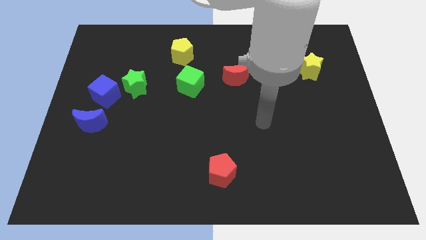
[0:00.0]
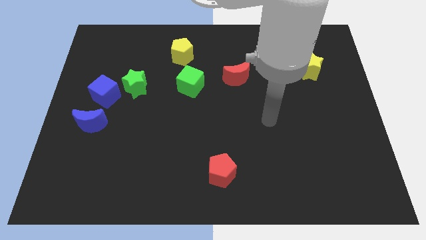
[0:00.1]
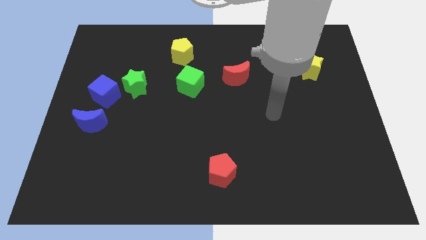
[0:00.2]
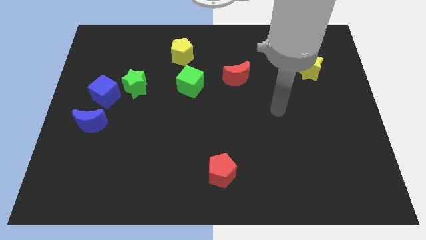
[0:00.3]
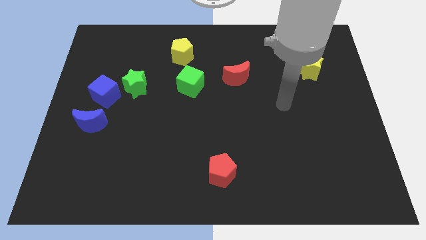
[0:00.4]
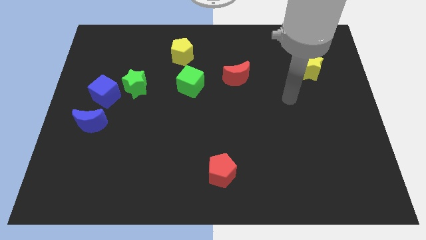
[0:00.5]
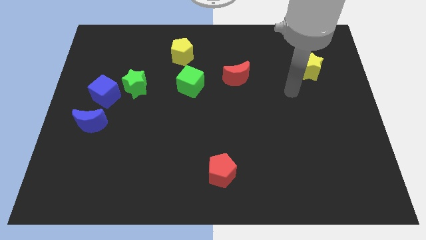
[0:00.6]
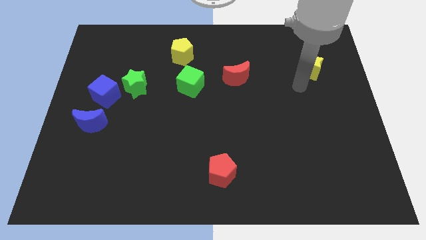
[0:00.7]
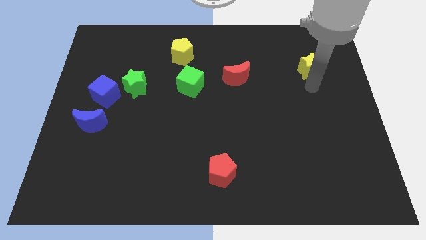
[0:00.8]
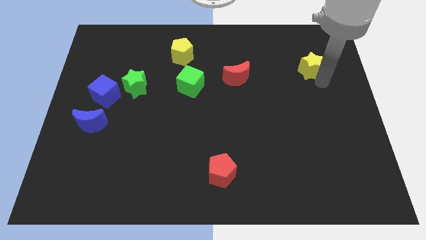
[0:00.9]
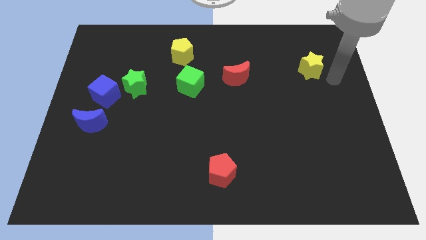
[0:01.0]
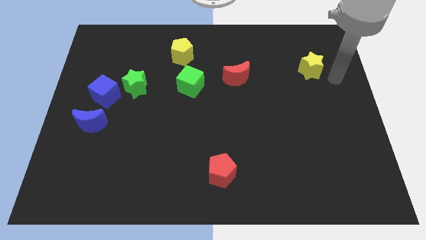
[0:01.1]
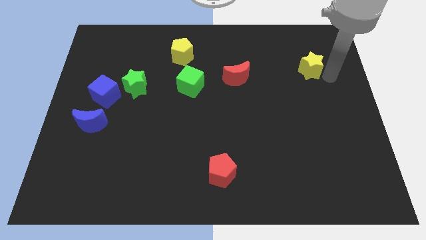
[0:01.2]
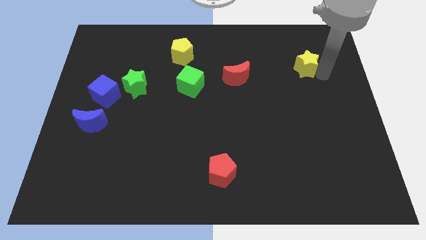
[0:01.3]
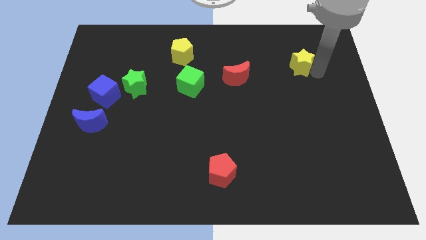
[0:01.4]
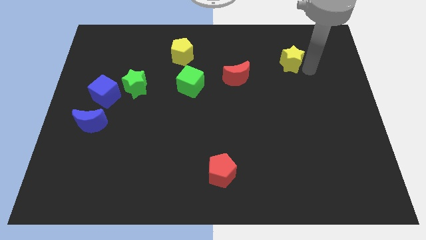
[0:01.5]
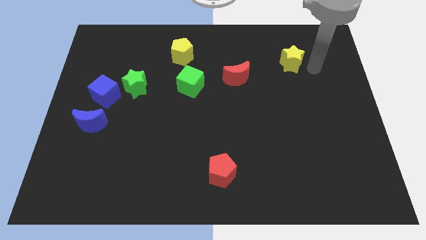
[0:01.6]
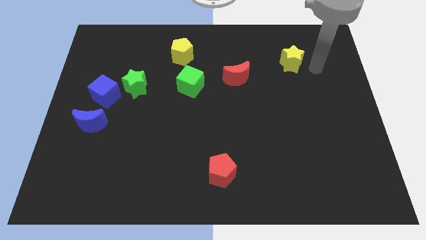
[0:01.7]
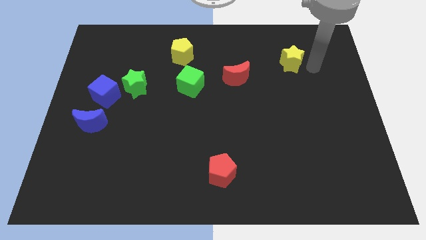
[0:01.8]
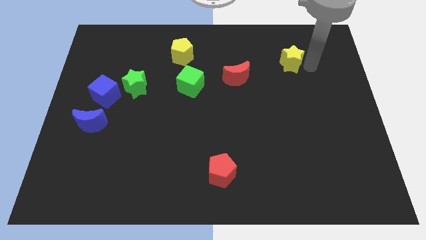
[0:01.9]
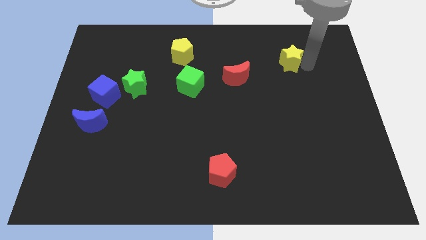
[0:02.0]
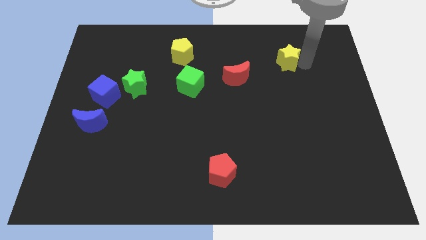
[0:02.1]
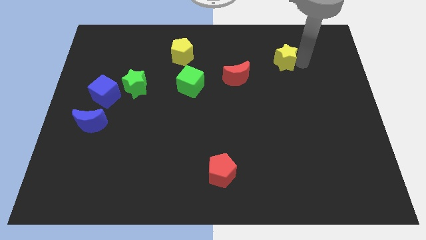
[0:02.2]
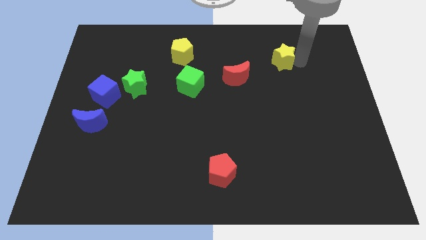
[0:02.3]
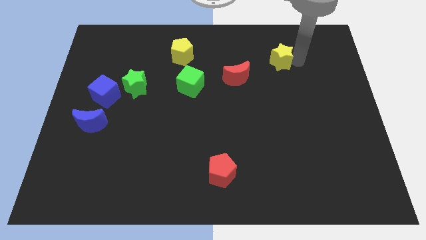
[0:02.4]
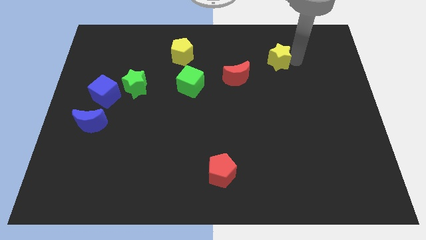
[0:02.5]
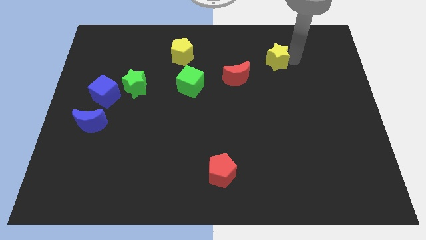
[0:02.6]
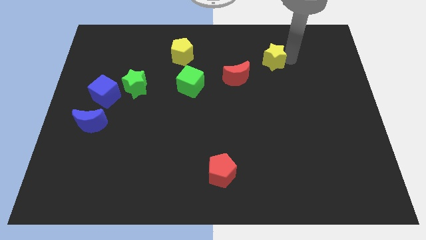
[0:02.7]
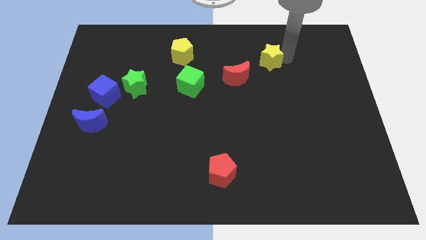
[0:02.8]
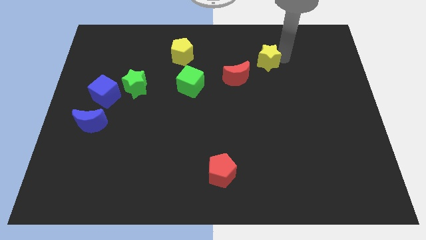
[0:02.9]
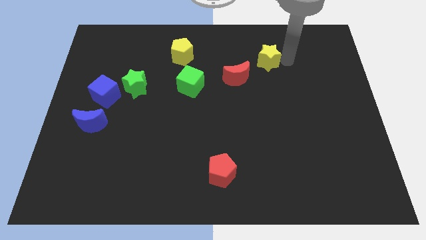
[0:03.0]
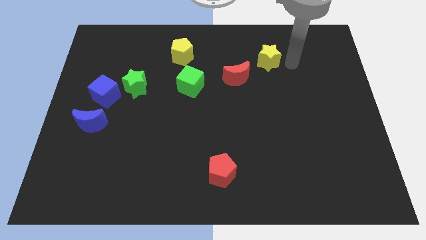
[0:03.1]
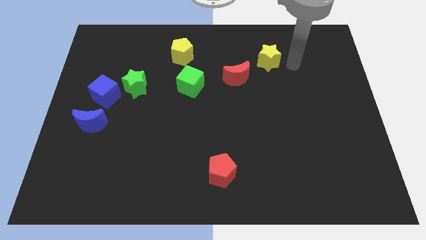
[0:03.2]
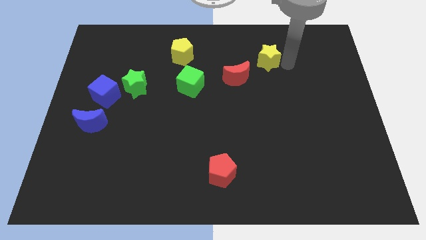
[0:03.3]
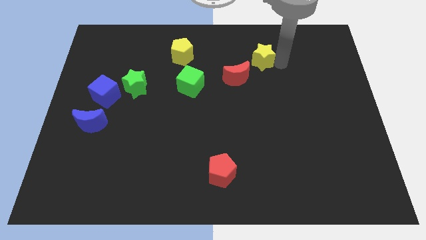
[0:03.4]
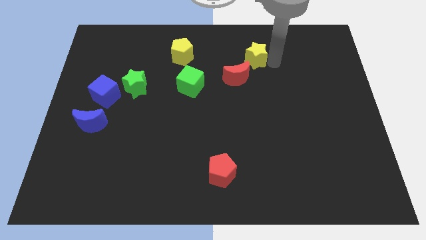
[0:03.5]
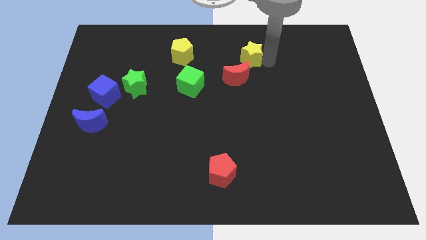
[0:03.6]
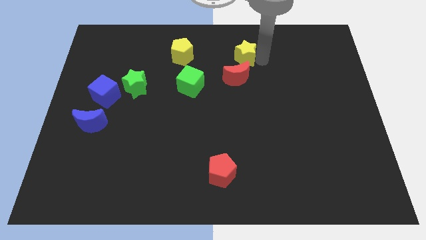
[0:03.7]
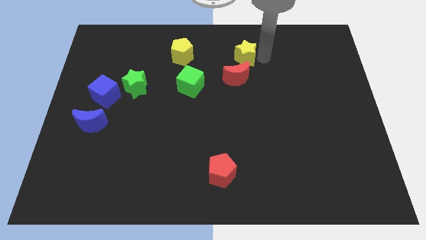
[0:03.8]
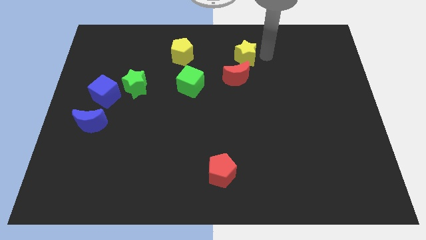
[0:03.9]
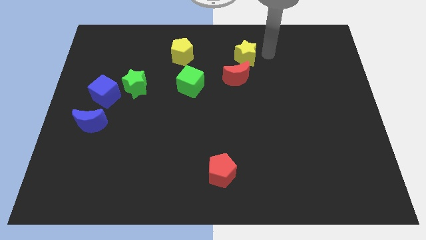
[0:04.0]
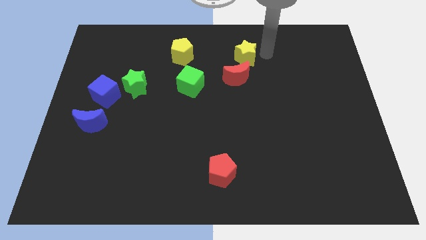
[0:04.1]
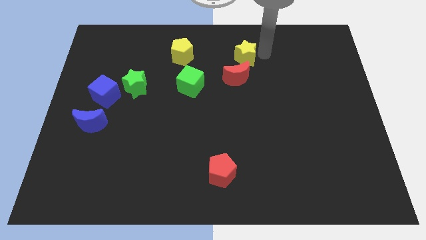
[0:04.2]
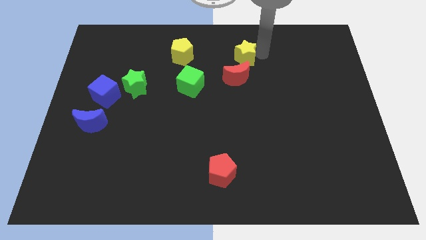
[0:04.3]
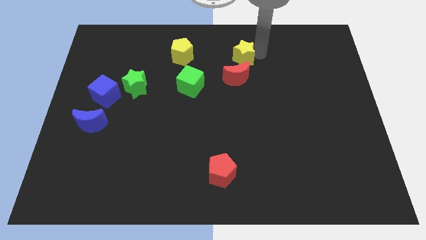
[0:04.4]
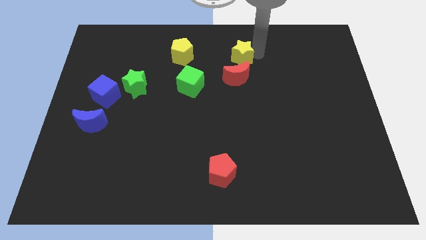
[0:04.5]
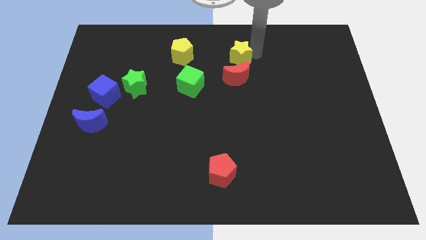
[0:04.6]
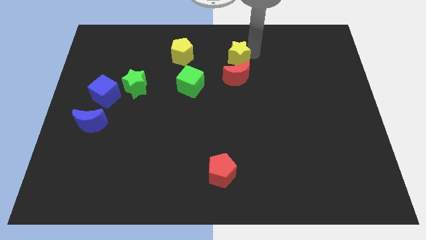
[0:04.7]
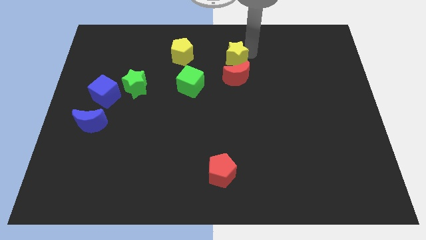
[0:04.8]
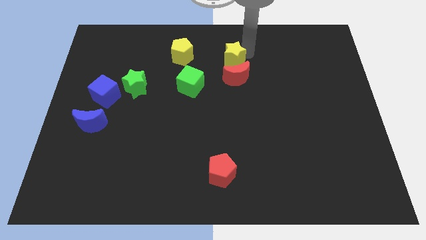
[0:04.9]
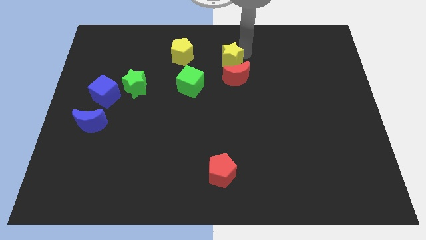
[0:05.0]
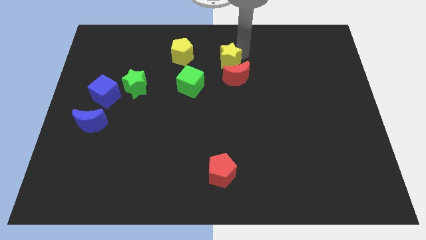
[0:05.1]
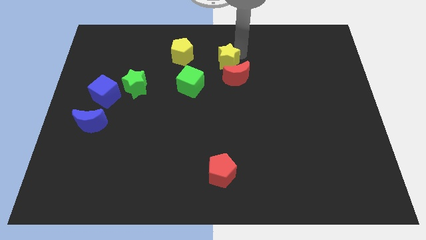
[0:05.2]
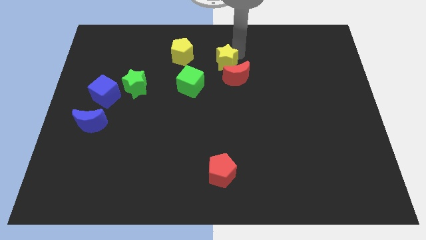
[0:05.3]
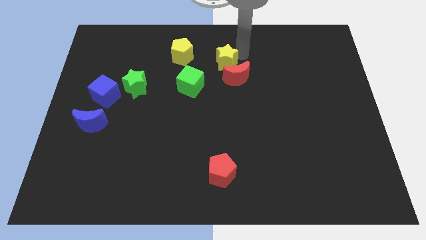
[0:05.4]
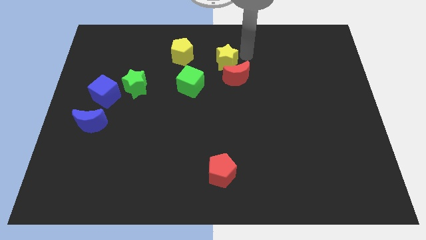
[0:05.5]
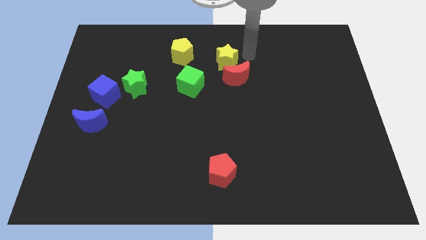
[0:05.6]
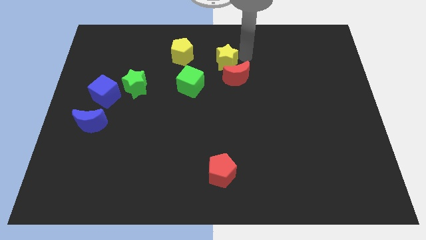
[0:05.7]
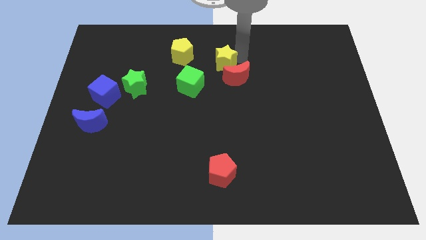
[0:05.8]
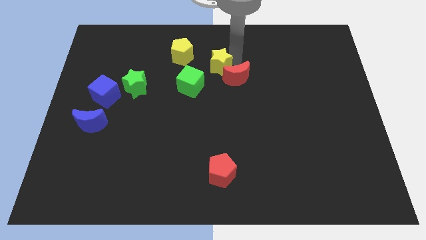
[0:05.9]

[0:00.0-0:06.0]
push the yellow star to the bottom right side of the yellow pentagon

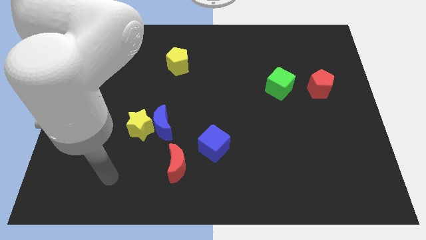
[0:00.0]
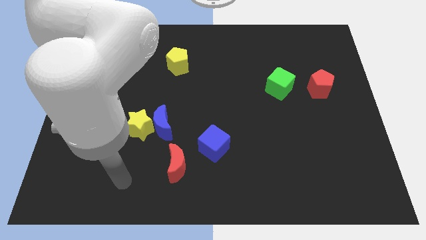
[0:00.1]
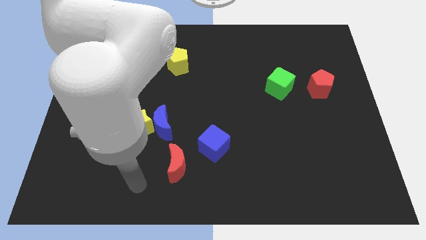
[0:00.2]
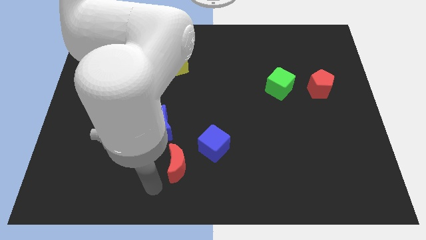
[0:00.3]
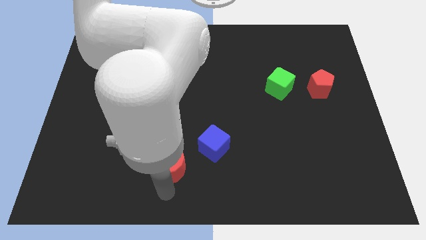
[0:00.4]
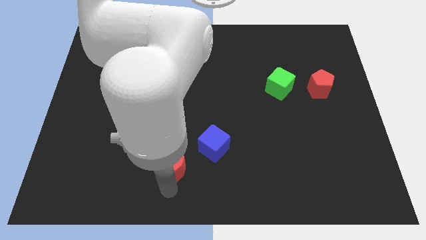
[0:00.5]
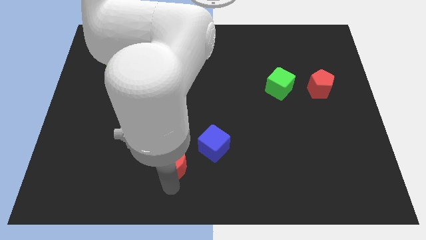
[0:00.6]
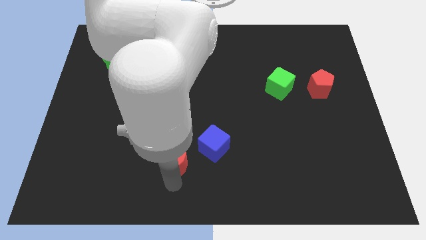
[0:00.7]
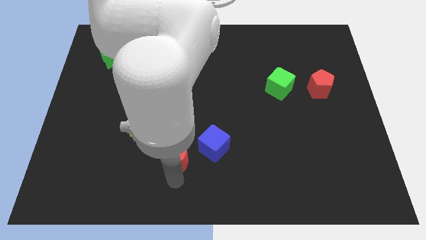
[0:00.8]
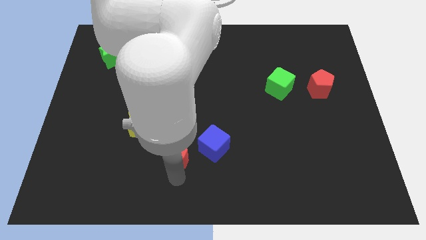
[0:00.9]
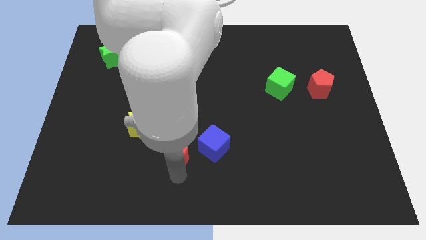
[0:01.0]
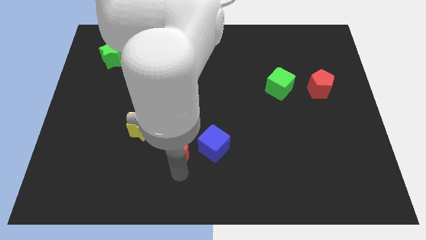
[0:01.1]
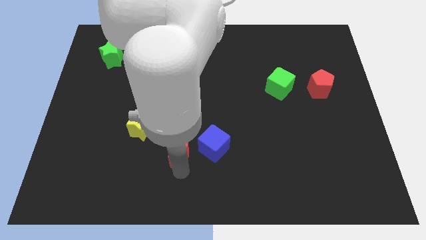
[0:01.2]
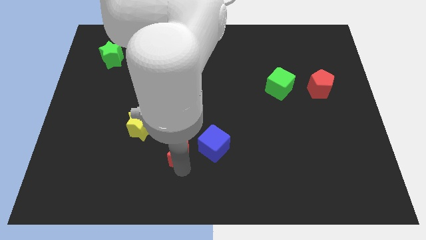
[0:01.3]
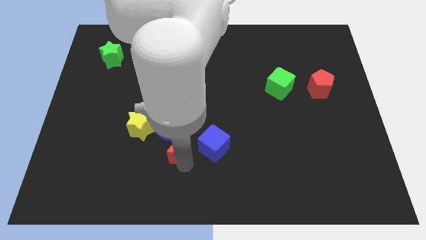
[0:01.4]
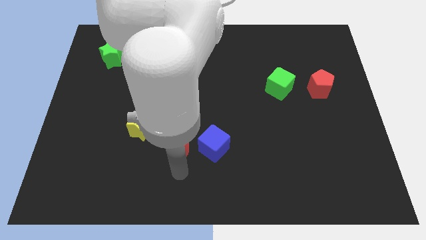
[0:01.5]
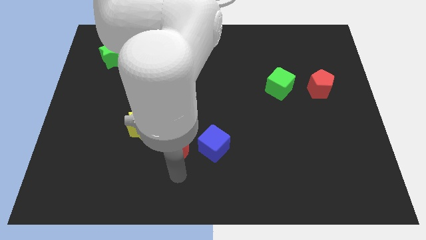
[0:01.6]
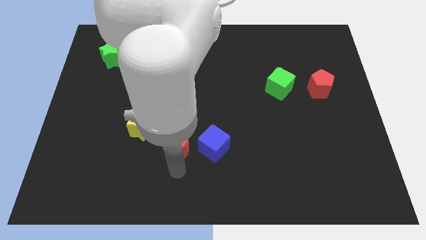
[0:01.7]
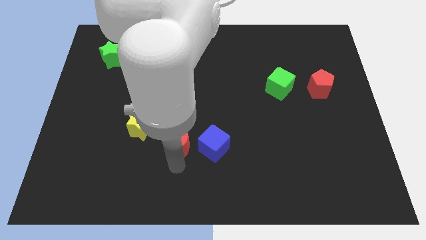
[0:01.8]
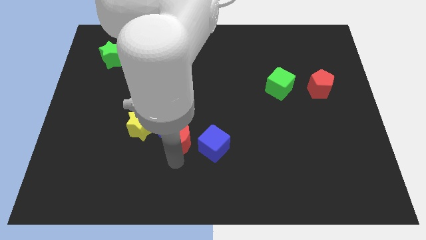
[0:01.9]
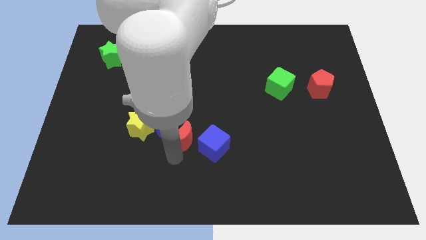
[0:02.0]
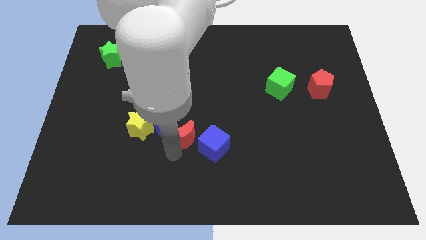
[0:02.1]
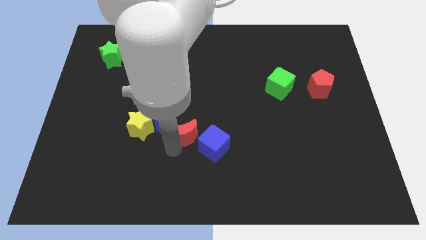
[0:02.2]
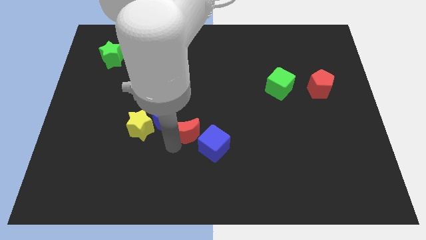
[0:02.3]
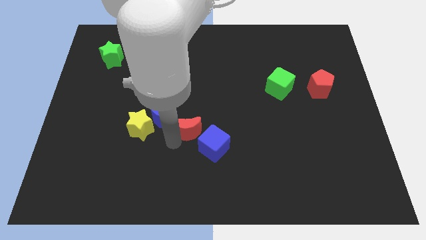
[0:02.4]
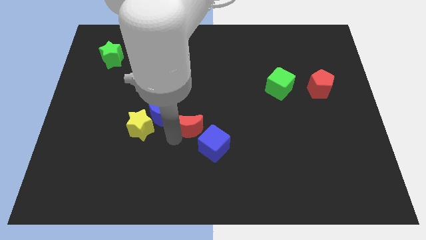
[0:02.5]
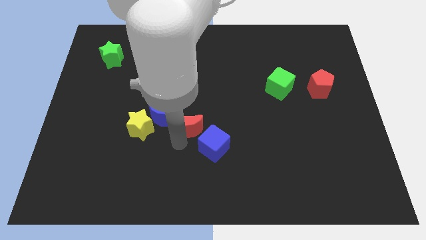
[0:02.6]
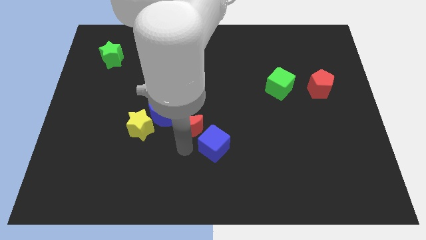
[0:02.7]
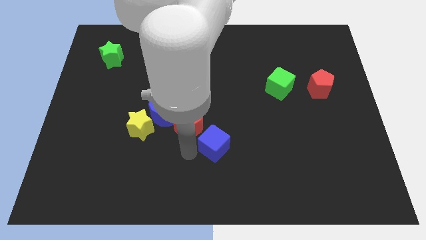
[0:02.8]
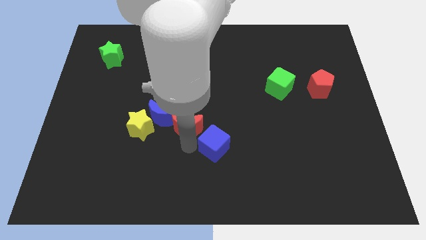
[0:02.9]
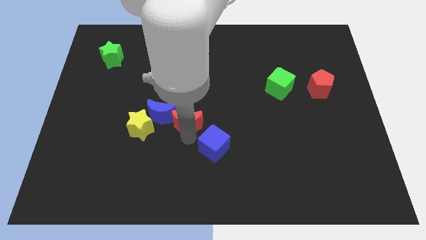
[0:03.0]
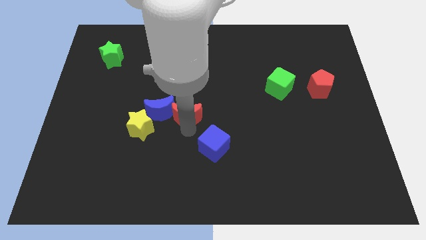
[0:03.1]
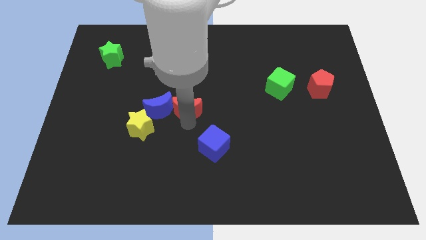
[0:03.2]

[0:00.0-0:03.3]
push the red moon diagonally up and to the right of the blue moon
